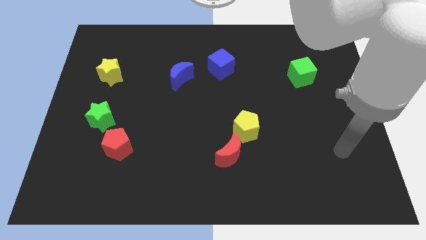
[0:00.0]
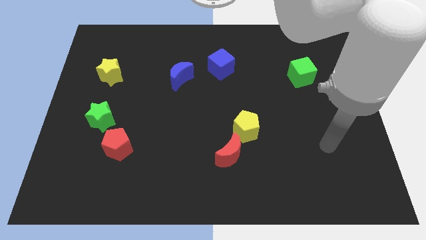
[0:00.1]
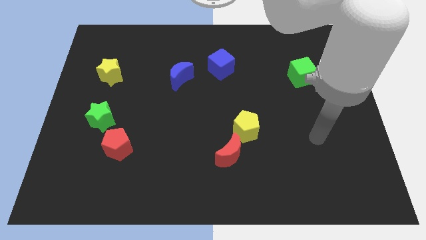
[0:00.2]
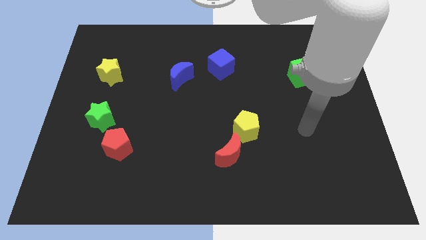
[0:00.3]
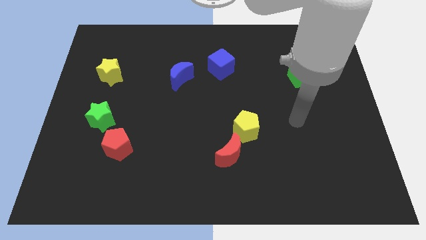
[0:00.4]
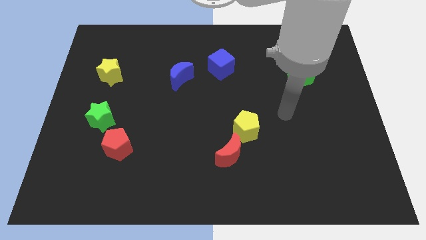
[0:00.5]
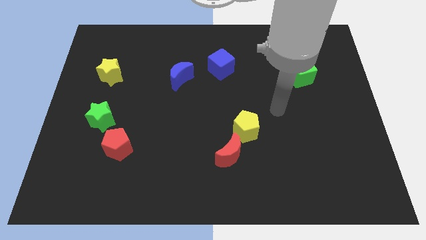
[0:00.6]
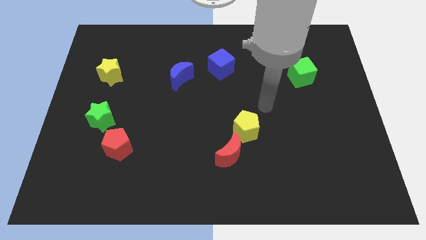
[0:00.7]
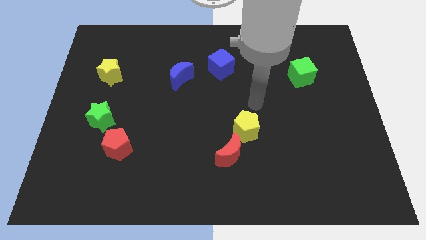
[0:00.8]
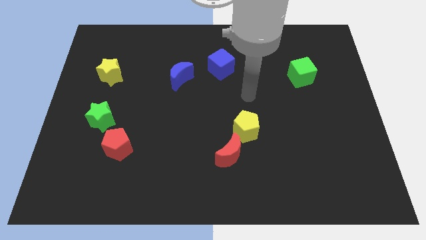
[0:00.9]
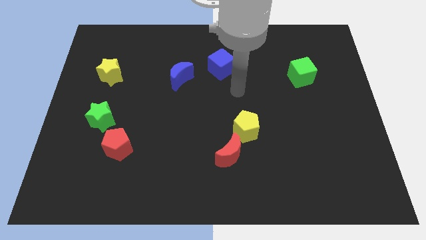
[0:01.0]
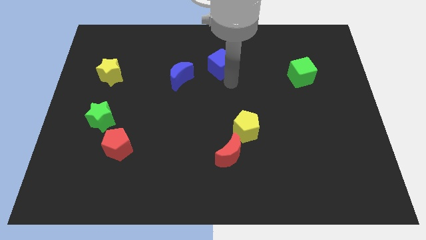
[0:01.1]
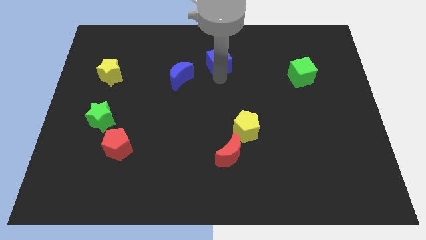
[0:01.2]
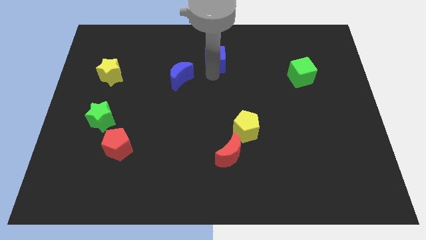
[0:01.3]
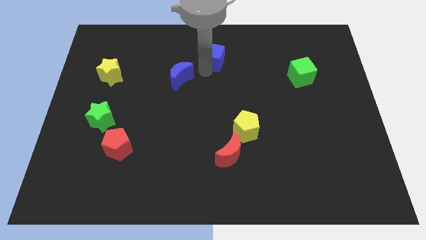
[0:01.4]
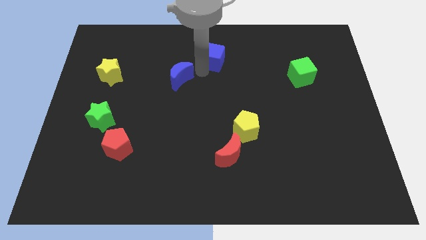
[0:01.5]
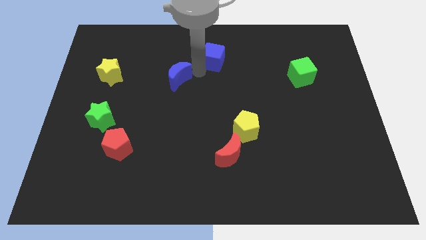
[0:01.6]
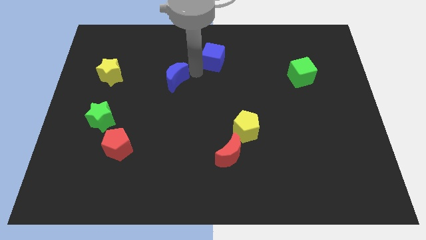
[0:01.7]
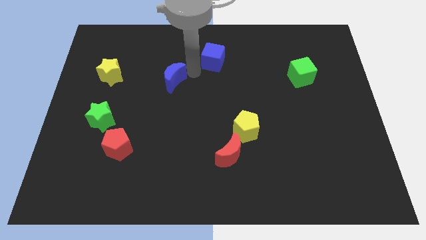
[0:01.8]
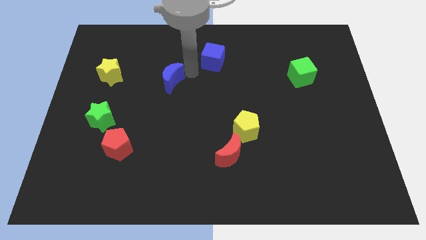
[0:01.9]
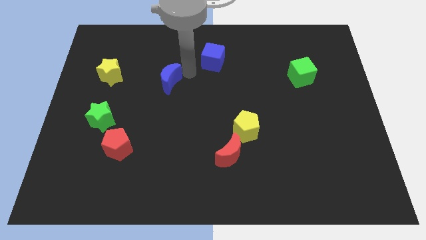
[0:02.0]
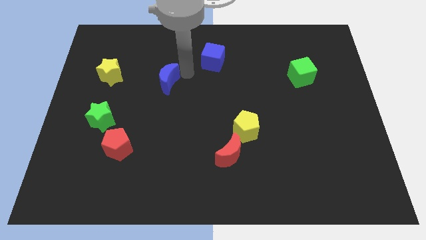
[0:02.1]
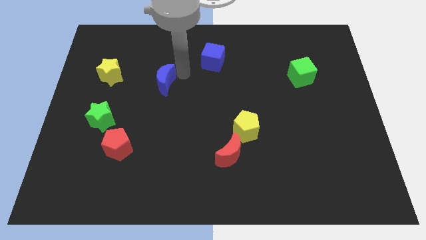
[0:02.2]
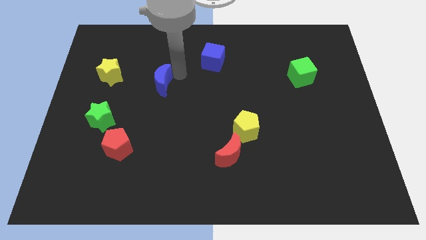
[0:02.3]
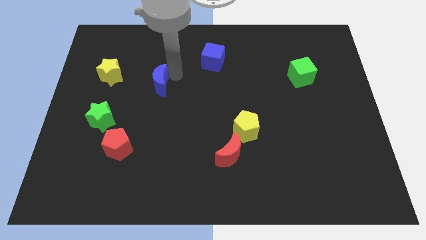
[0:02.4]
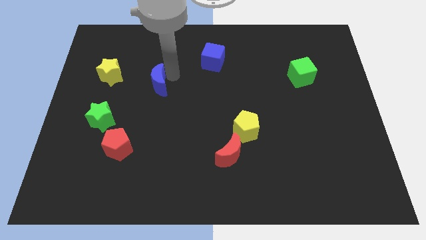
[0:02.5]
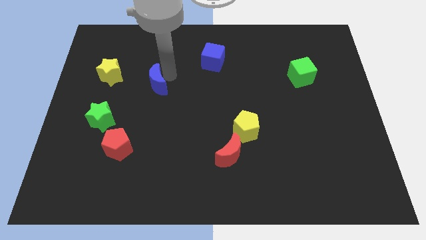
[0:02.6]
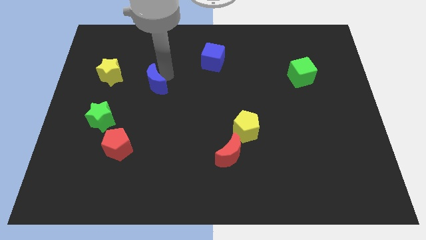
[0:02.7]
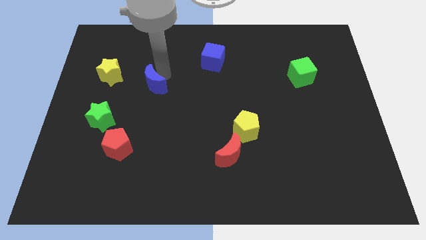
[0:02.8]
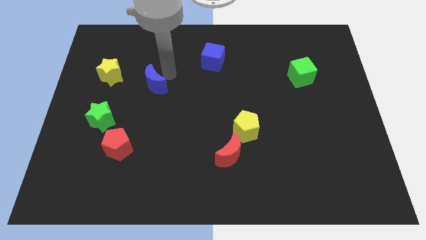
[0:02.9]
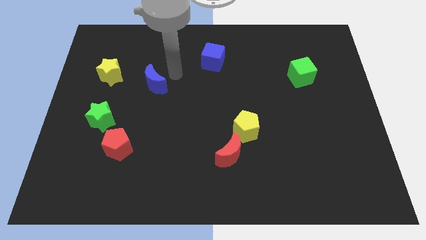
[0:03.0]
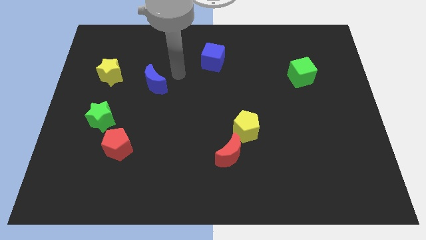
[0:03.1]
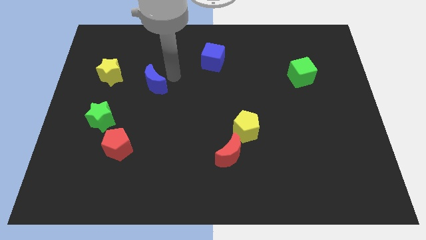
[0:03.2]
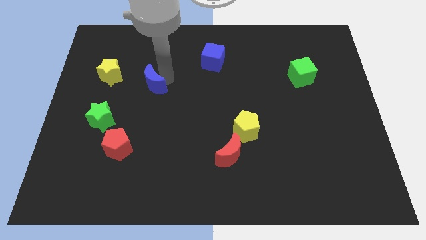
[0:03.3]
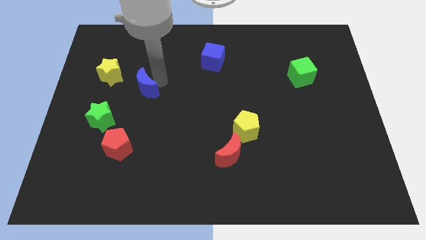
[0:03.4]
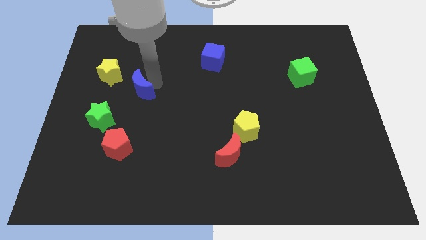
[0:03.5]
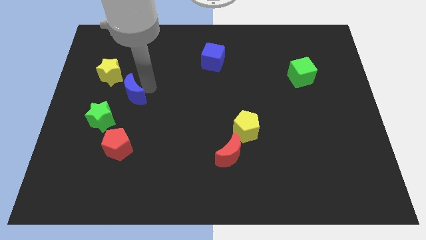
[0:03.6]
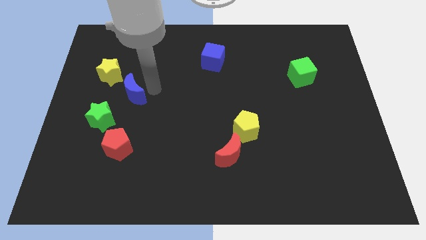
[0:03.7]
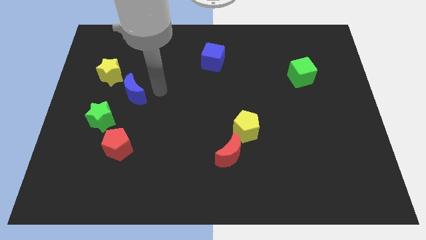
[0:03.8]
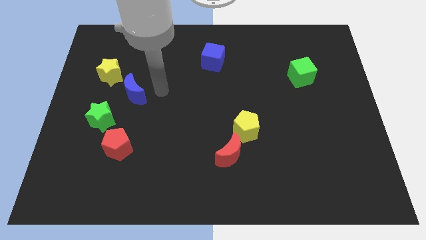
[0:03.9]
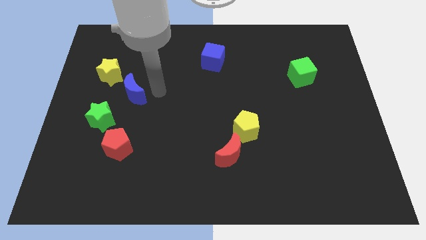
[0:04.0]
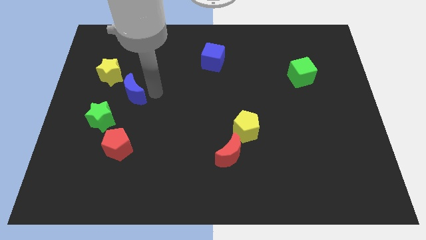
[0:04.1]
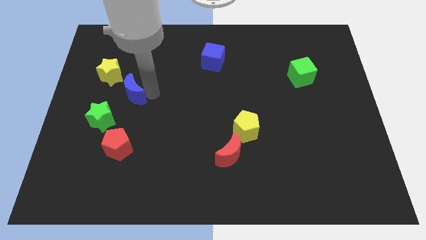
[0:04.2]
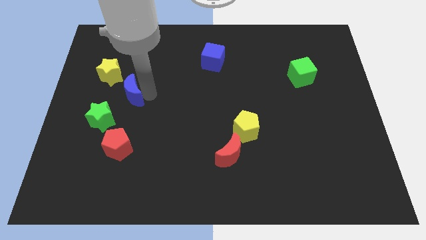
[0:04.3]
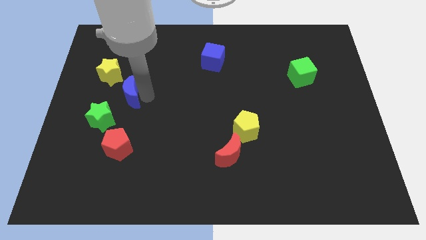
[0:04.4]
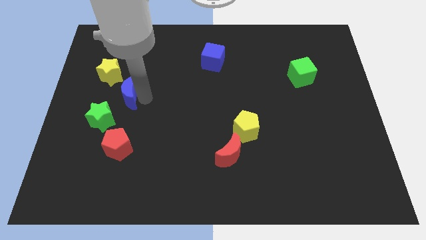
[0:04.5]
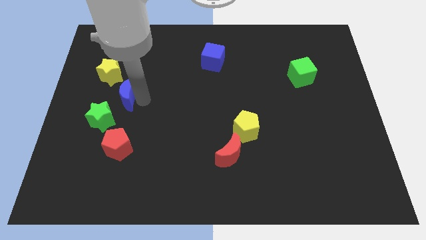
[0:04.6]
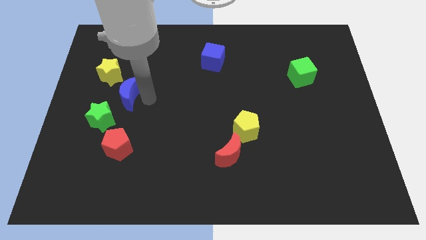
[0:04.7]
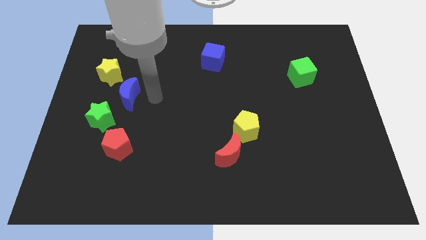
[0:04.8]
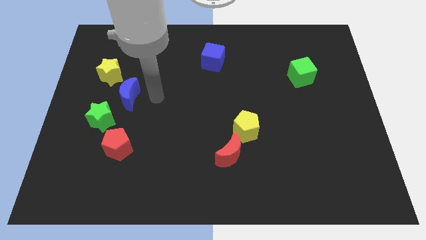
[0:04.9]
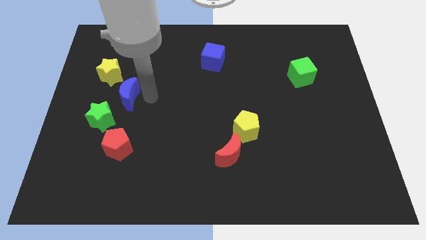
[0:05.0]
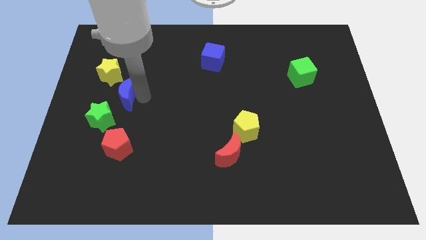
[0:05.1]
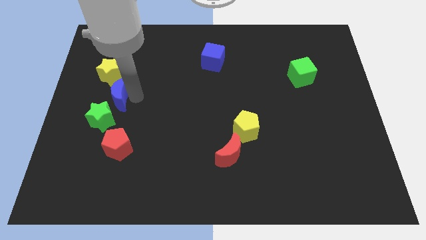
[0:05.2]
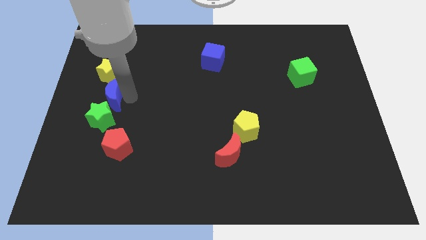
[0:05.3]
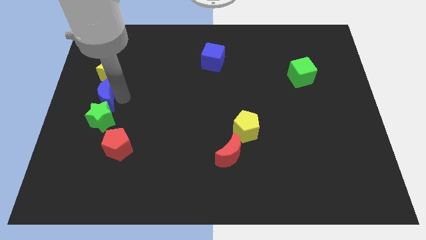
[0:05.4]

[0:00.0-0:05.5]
slide the blue moon to the left side of the board

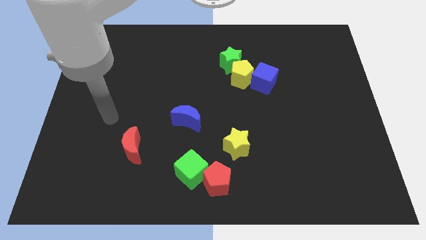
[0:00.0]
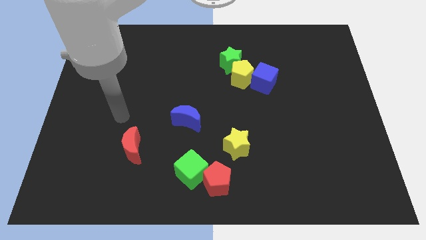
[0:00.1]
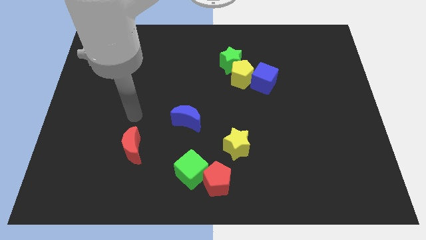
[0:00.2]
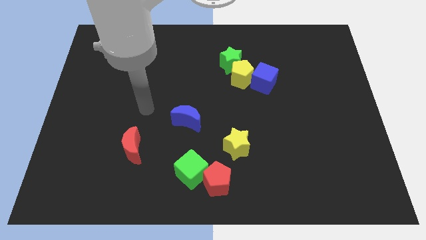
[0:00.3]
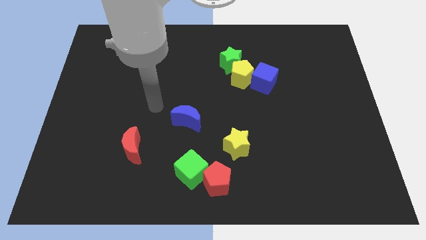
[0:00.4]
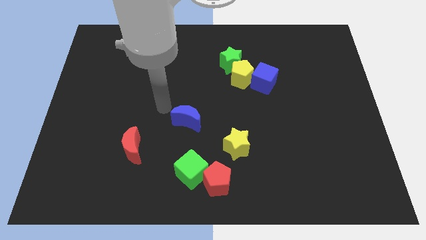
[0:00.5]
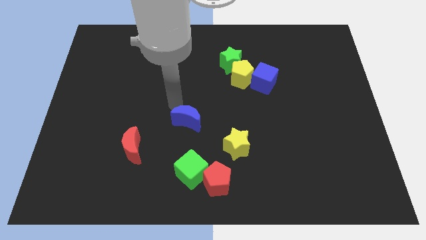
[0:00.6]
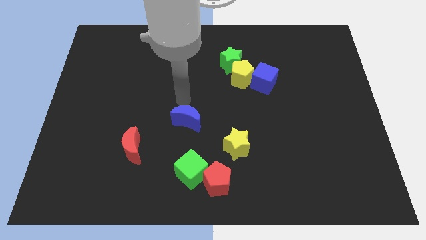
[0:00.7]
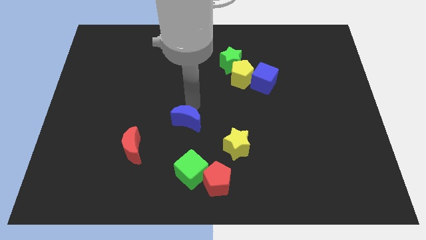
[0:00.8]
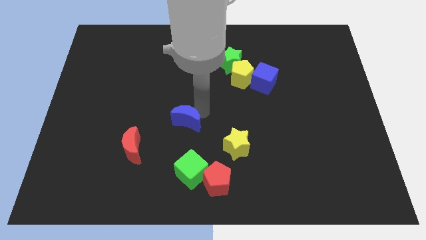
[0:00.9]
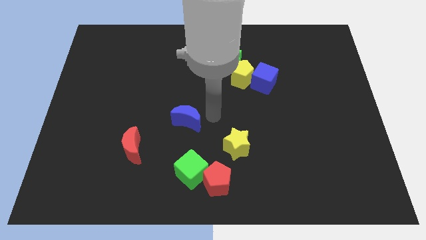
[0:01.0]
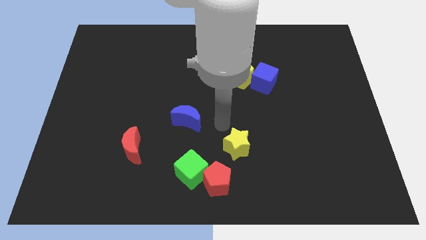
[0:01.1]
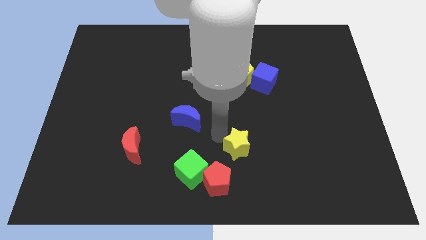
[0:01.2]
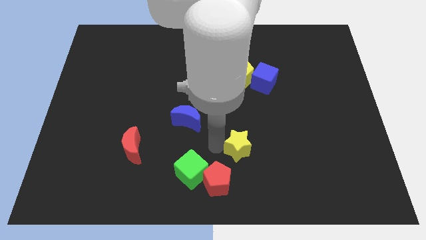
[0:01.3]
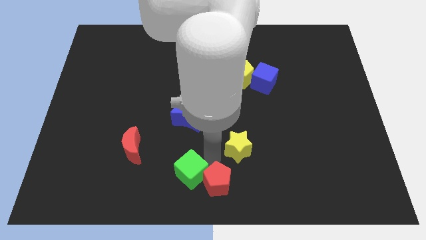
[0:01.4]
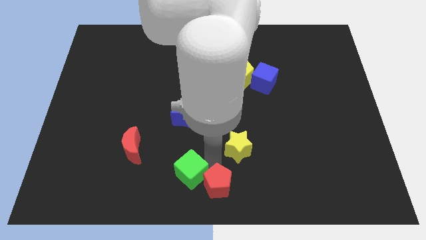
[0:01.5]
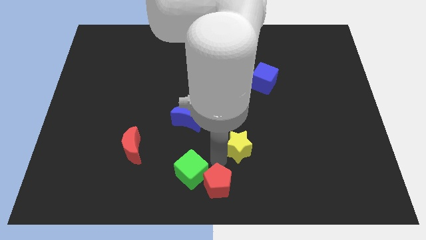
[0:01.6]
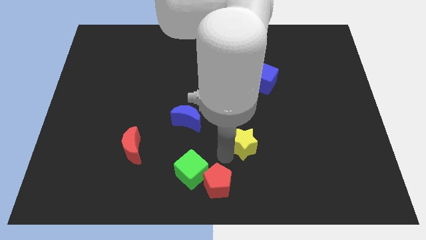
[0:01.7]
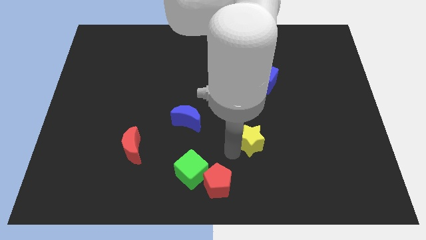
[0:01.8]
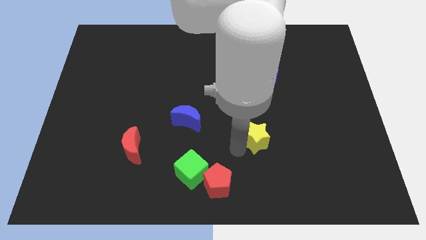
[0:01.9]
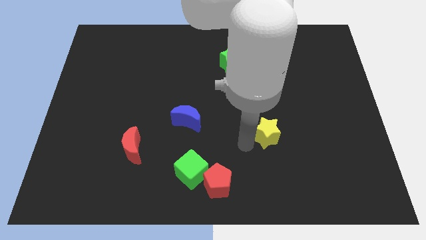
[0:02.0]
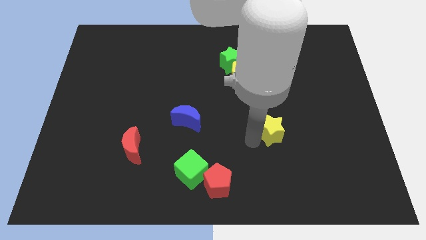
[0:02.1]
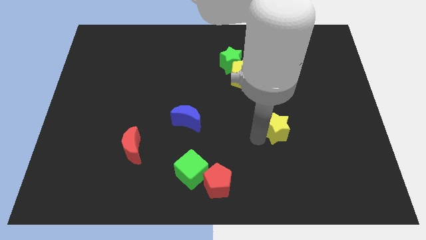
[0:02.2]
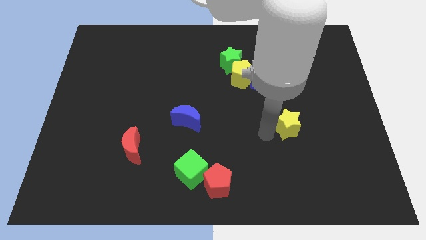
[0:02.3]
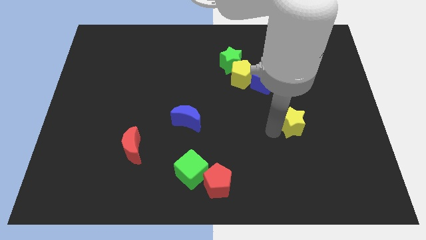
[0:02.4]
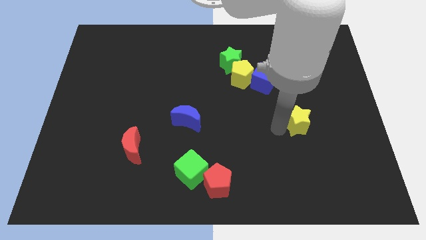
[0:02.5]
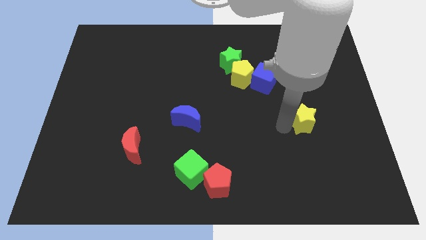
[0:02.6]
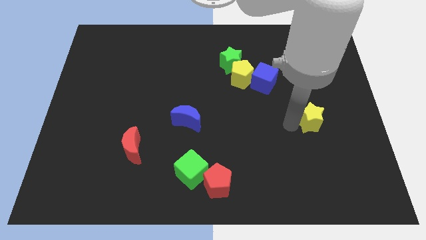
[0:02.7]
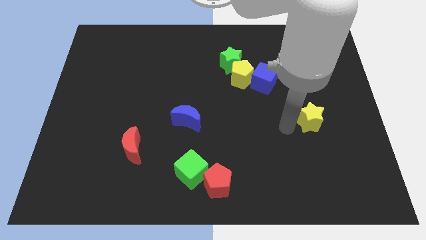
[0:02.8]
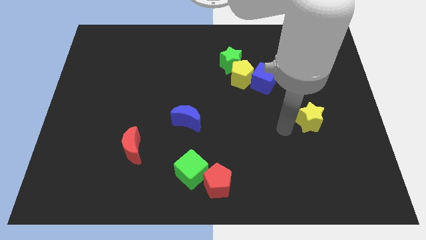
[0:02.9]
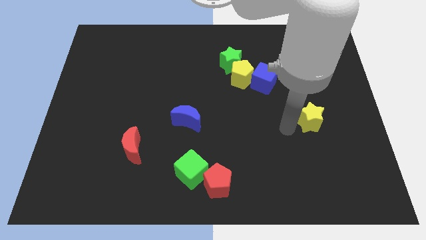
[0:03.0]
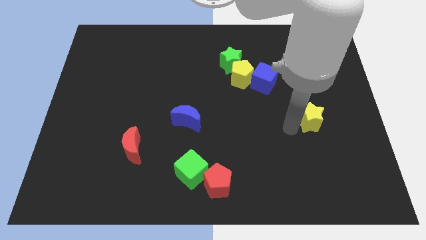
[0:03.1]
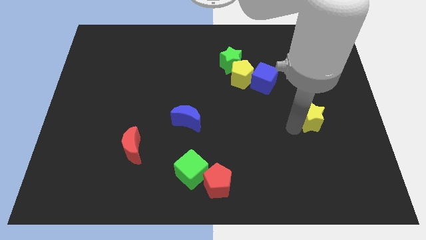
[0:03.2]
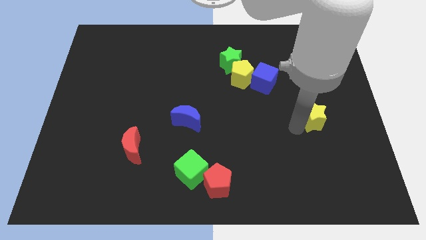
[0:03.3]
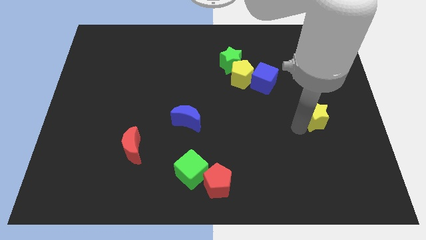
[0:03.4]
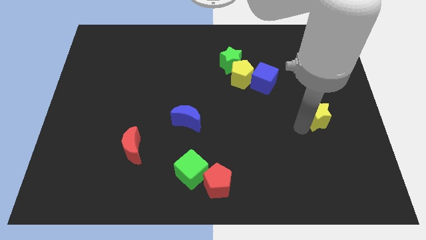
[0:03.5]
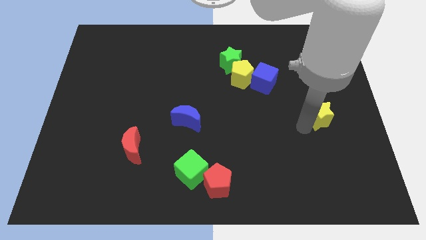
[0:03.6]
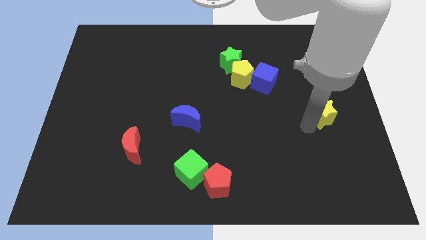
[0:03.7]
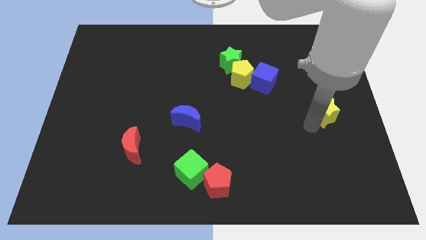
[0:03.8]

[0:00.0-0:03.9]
slide the yellow star to the right side
